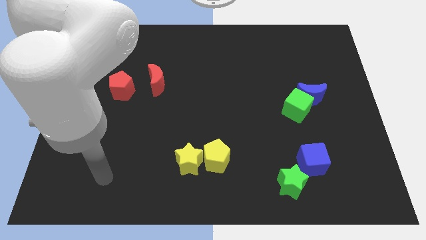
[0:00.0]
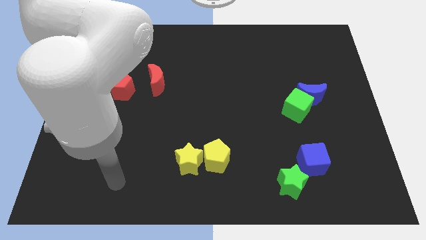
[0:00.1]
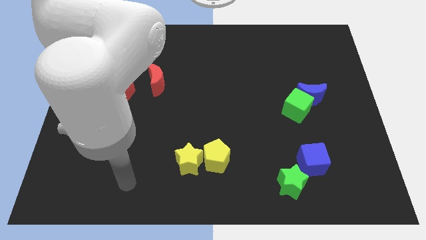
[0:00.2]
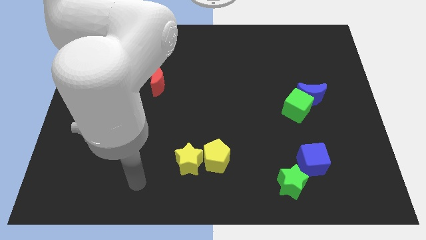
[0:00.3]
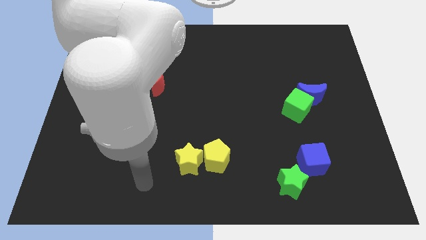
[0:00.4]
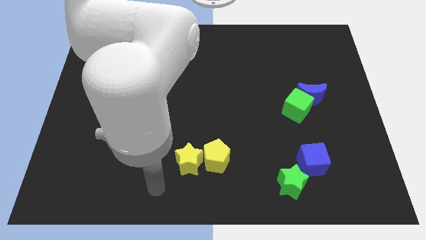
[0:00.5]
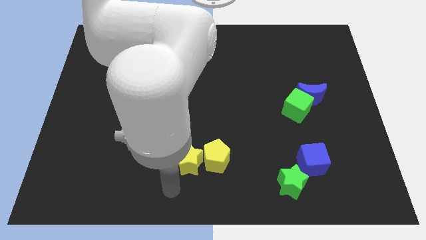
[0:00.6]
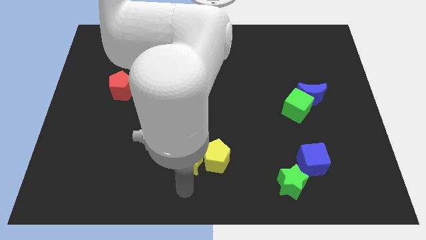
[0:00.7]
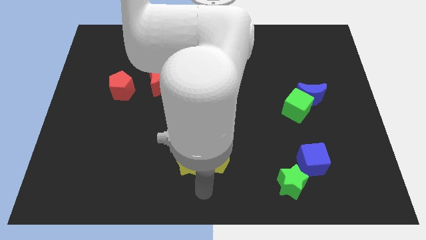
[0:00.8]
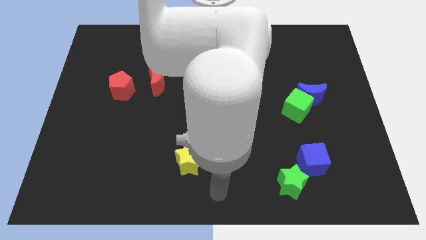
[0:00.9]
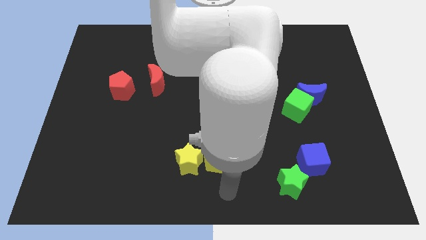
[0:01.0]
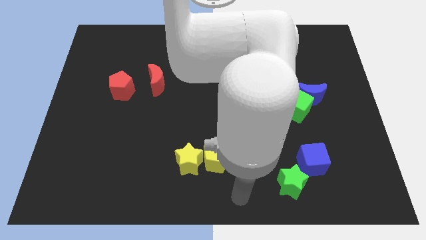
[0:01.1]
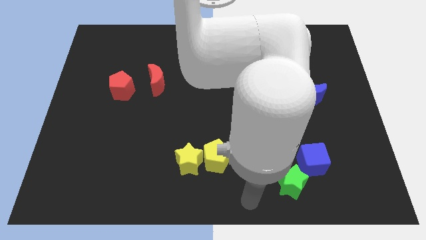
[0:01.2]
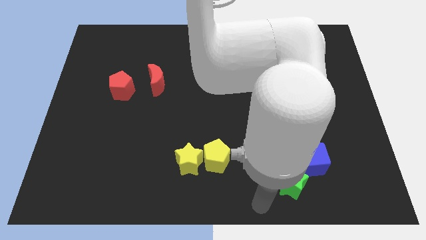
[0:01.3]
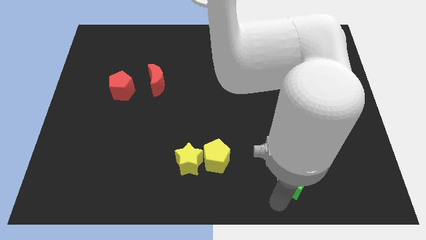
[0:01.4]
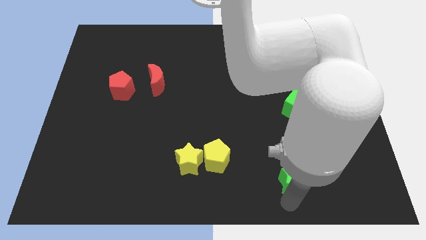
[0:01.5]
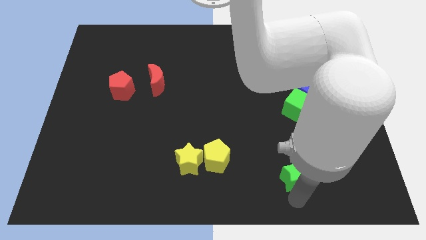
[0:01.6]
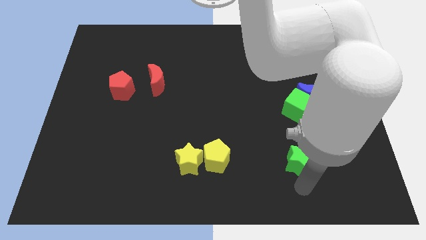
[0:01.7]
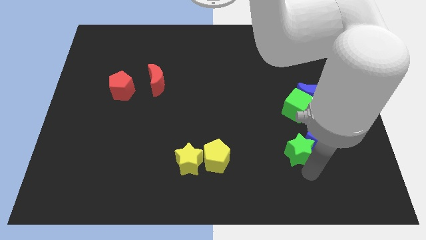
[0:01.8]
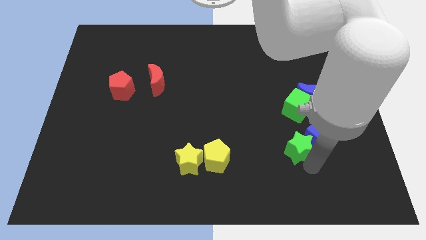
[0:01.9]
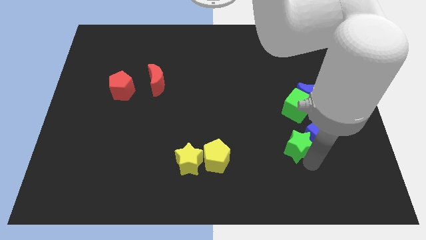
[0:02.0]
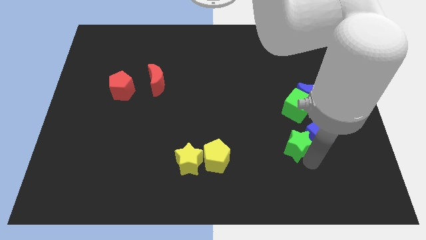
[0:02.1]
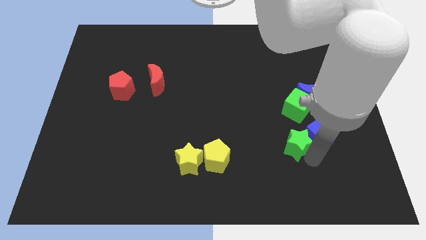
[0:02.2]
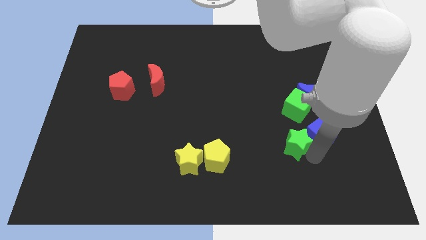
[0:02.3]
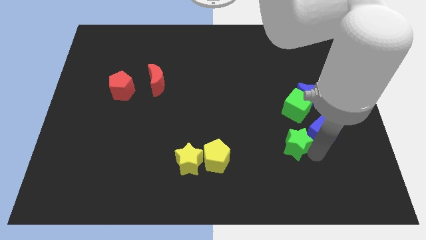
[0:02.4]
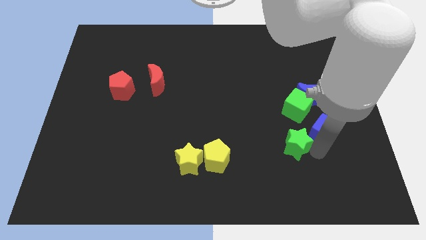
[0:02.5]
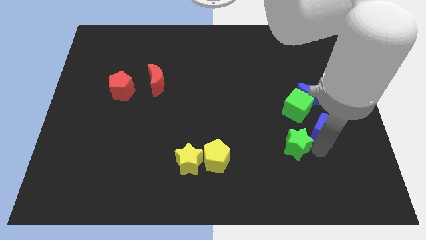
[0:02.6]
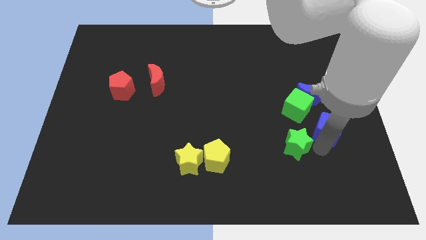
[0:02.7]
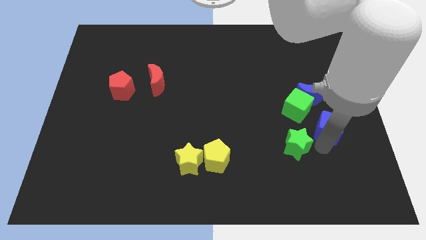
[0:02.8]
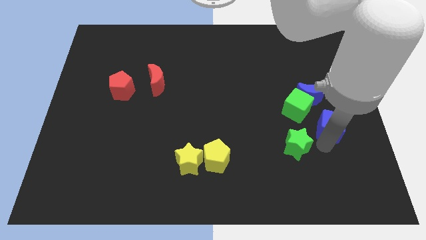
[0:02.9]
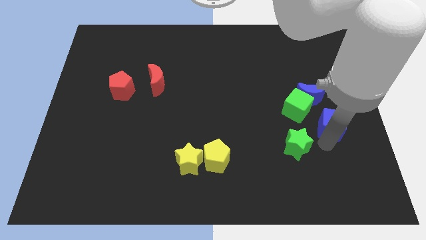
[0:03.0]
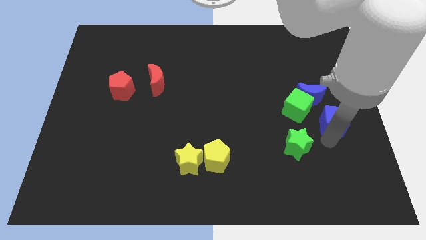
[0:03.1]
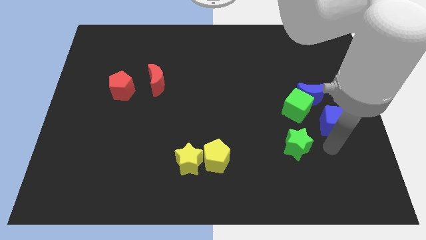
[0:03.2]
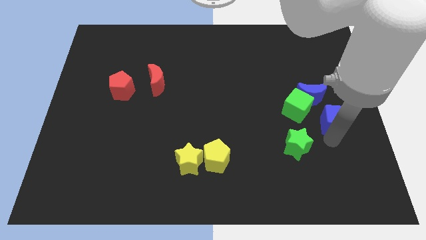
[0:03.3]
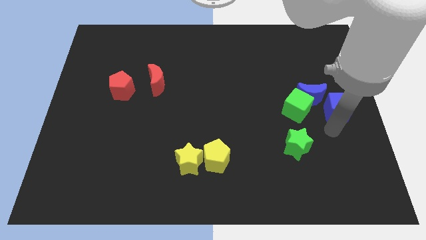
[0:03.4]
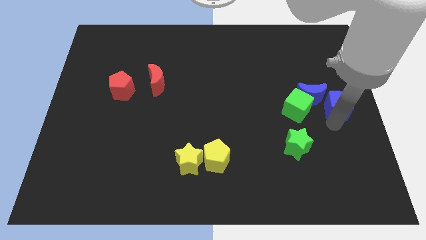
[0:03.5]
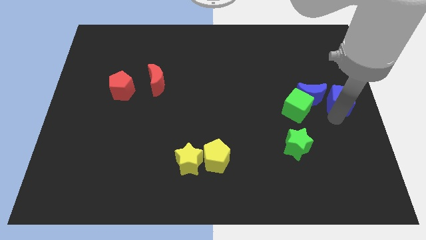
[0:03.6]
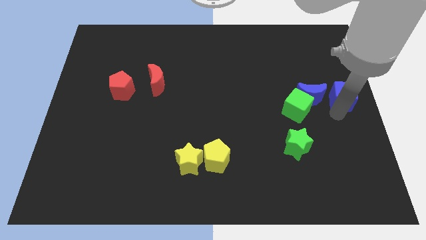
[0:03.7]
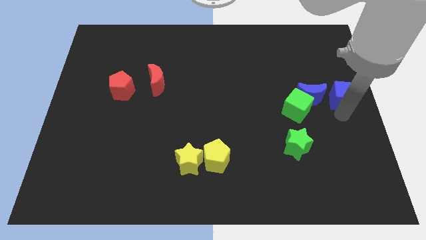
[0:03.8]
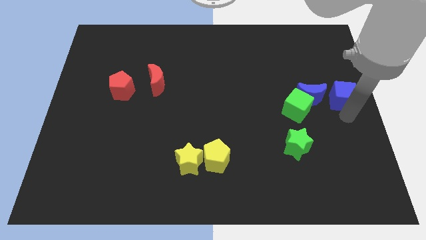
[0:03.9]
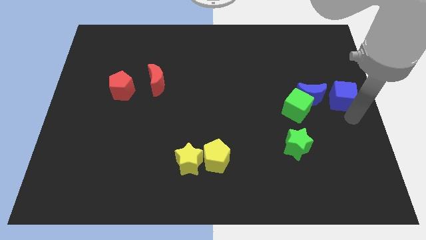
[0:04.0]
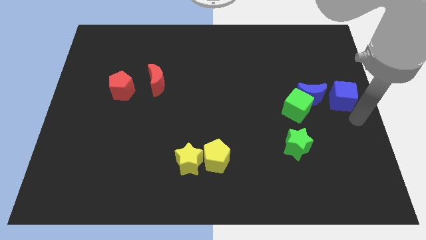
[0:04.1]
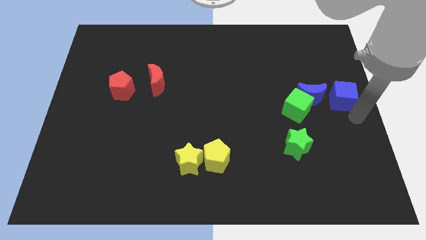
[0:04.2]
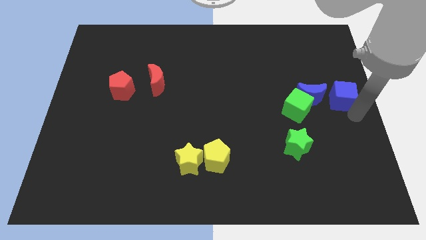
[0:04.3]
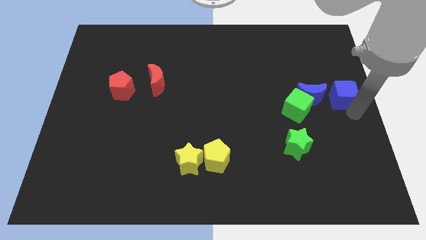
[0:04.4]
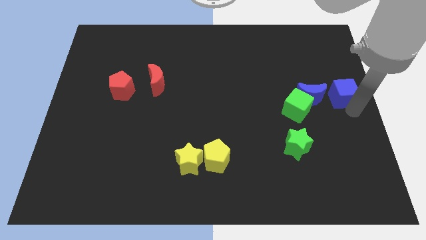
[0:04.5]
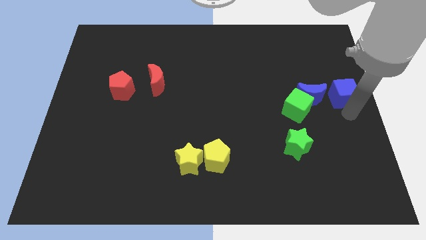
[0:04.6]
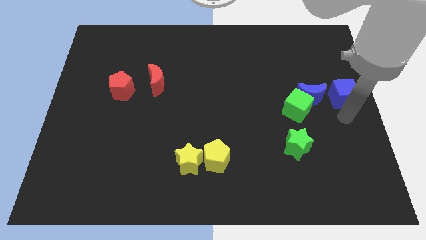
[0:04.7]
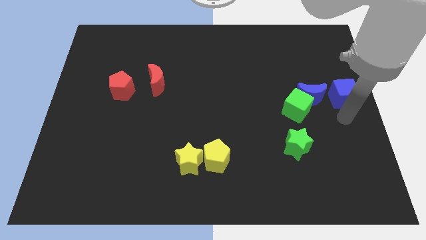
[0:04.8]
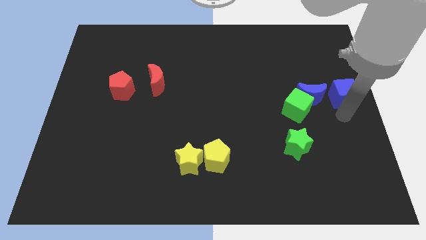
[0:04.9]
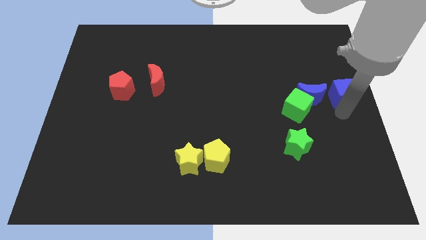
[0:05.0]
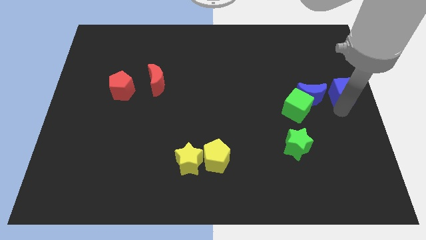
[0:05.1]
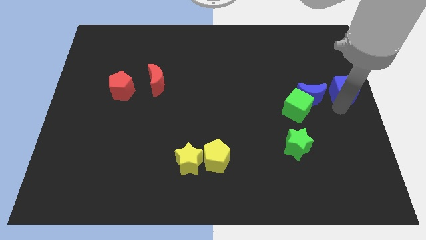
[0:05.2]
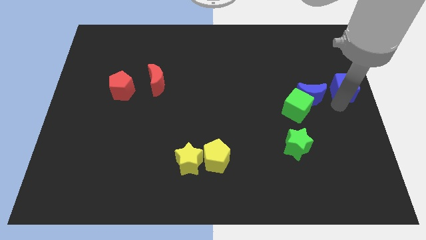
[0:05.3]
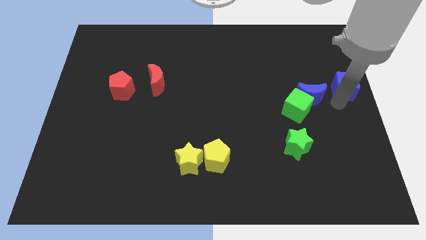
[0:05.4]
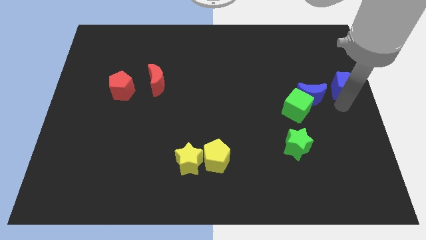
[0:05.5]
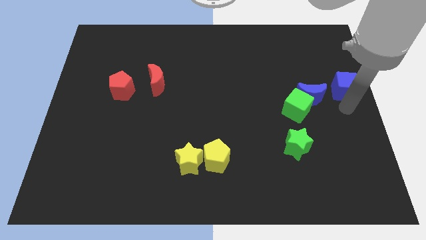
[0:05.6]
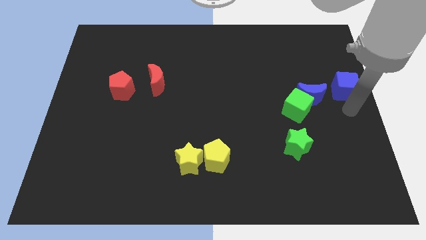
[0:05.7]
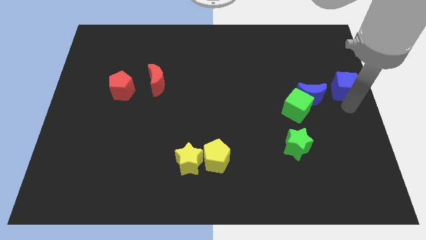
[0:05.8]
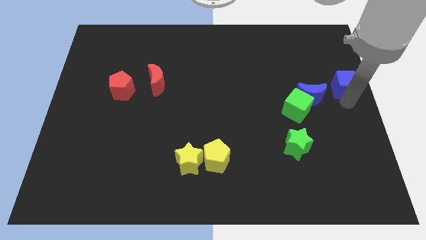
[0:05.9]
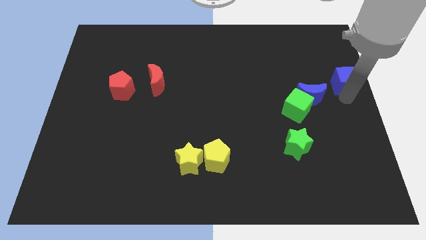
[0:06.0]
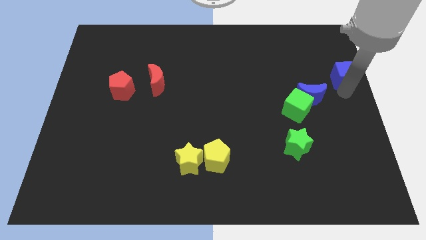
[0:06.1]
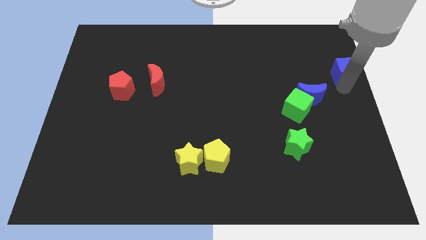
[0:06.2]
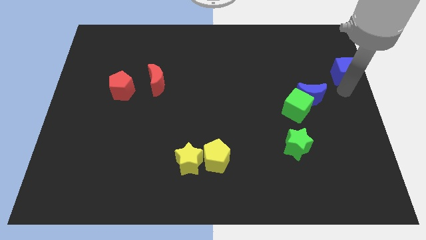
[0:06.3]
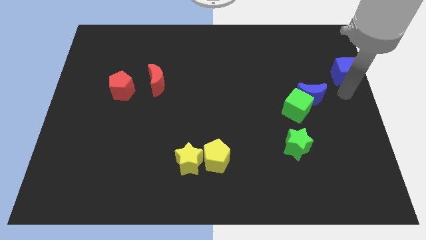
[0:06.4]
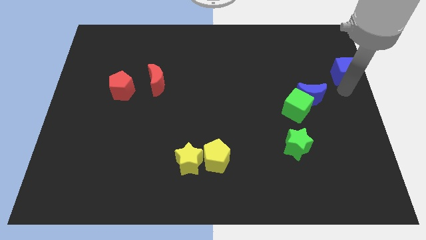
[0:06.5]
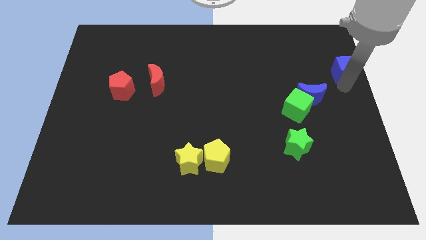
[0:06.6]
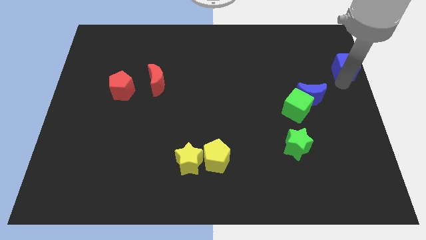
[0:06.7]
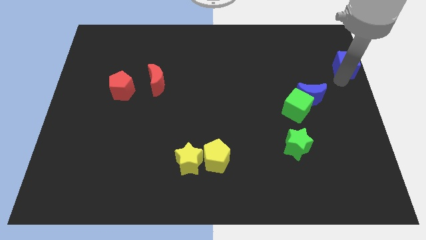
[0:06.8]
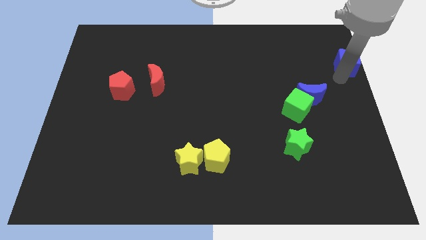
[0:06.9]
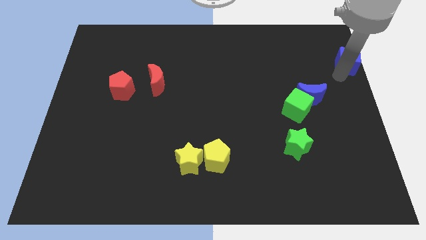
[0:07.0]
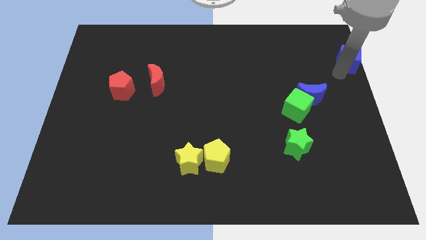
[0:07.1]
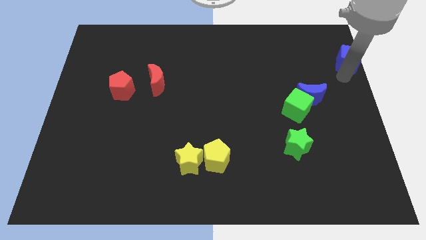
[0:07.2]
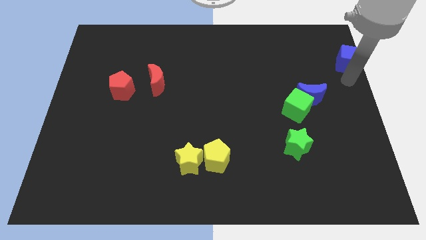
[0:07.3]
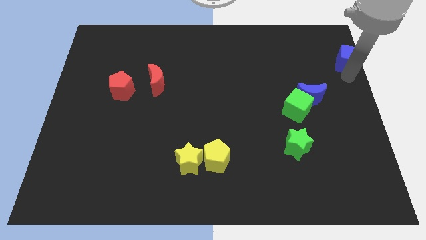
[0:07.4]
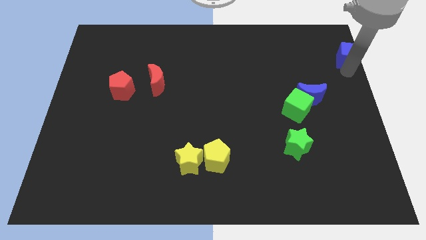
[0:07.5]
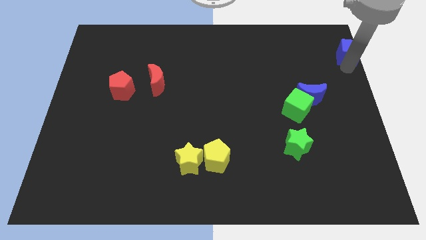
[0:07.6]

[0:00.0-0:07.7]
push the blue cube to the upper right corner
